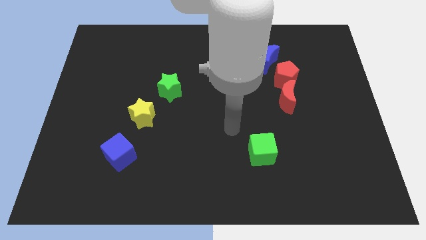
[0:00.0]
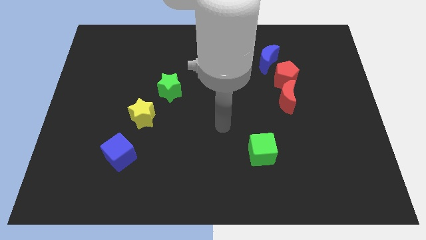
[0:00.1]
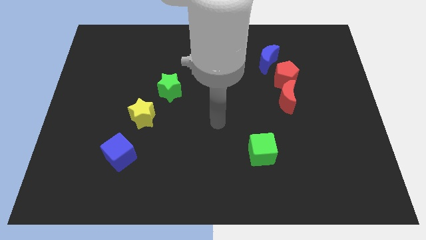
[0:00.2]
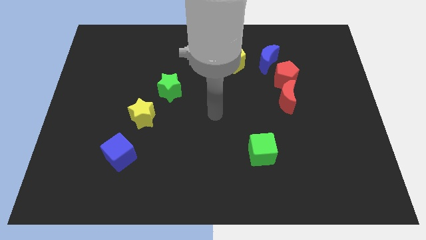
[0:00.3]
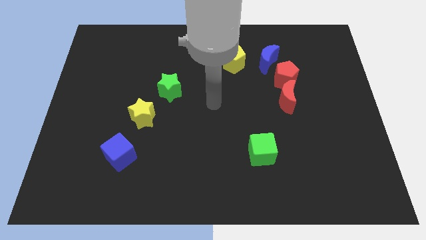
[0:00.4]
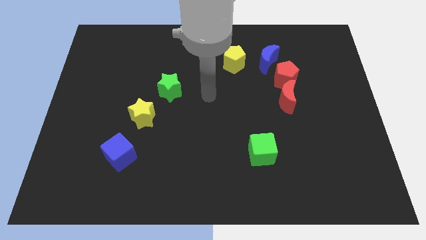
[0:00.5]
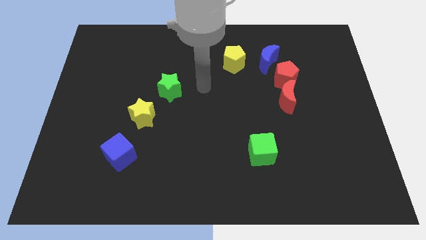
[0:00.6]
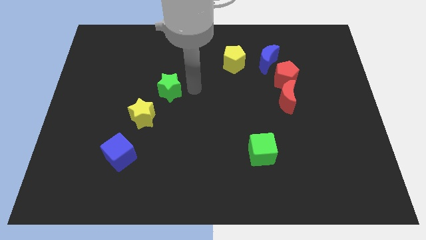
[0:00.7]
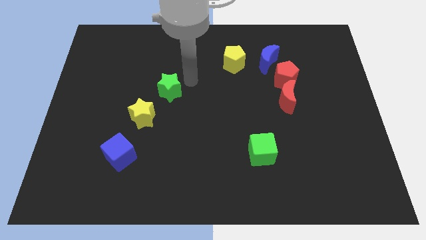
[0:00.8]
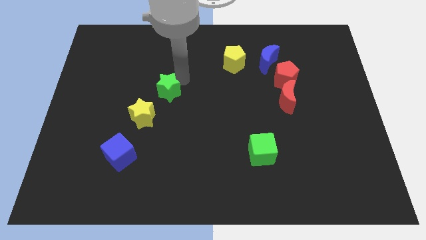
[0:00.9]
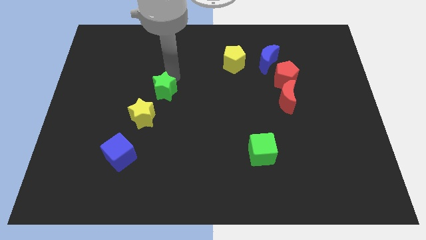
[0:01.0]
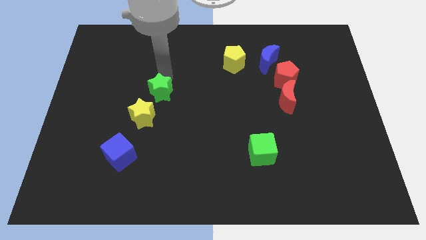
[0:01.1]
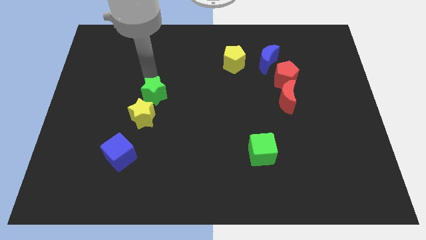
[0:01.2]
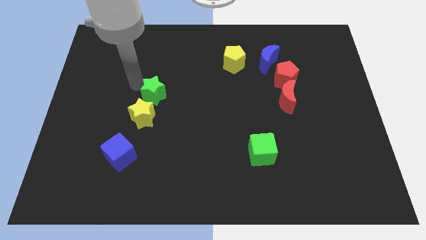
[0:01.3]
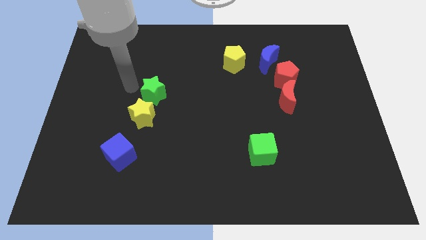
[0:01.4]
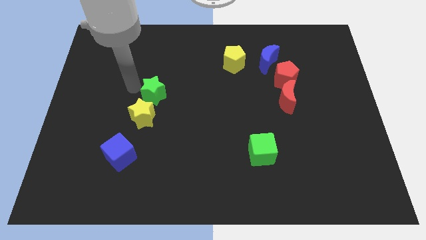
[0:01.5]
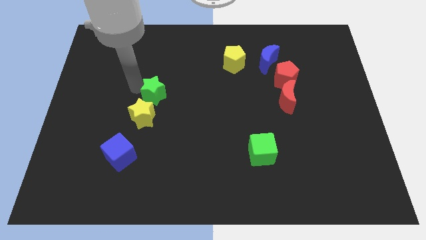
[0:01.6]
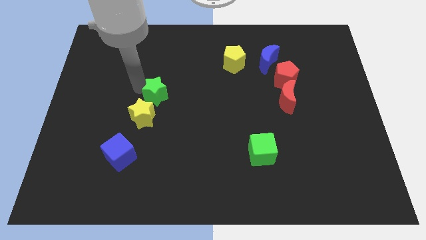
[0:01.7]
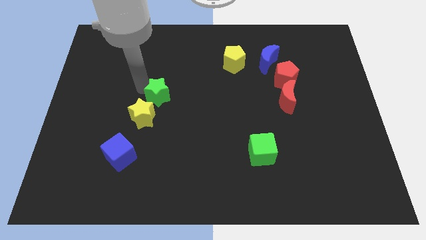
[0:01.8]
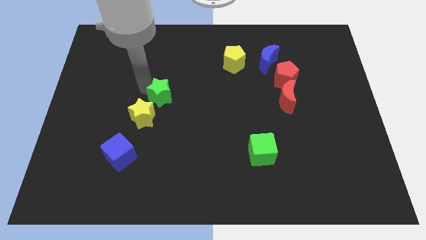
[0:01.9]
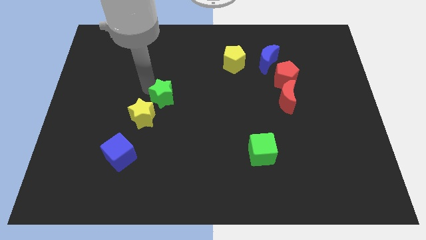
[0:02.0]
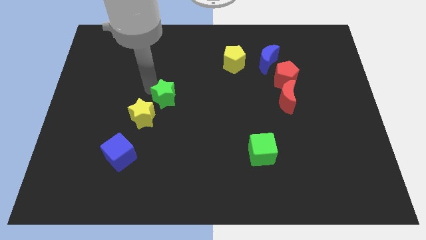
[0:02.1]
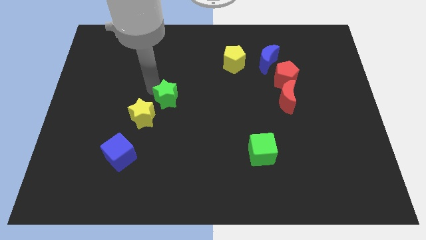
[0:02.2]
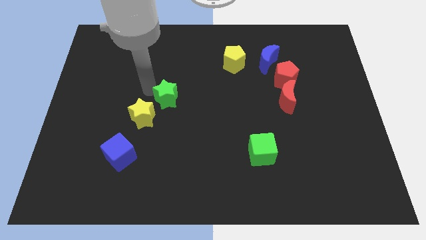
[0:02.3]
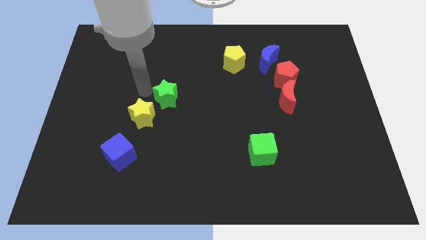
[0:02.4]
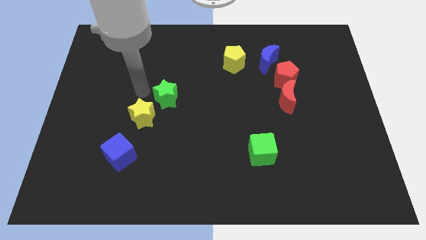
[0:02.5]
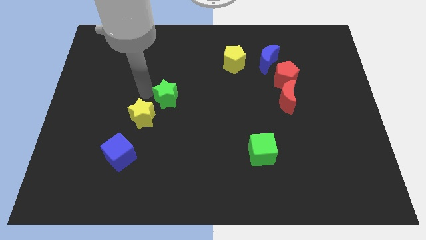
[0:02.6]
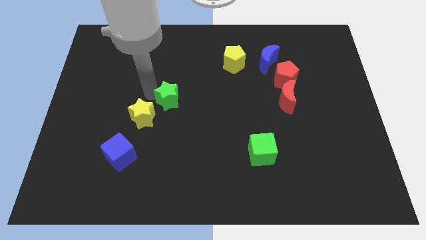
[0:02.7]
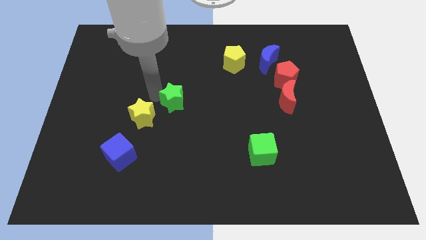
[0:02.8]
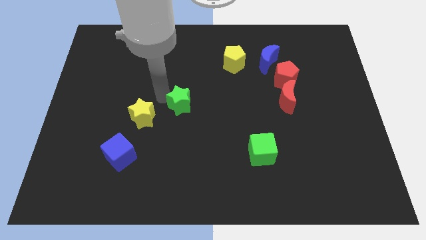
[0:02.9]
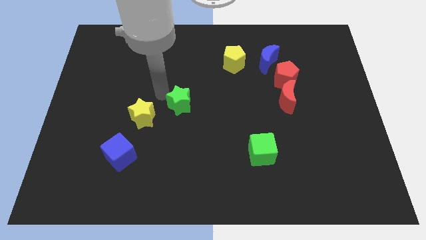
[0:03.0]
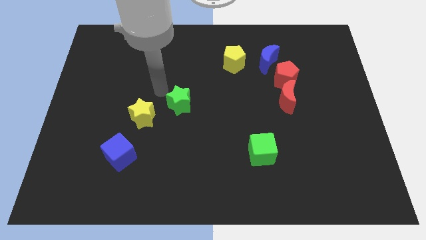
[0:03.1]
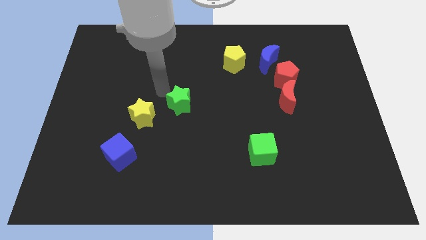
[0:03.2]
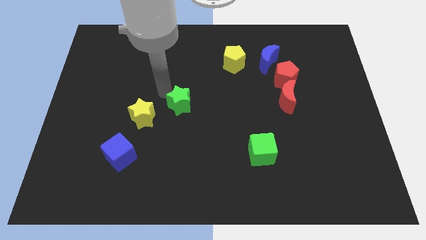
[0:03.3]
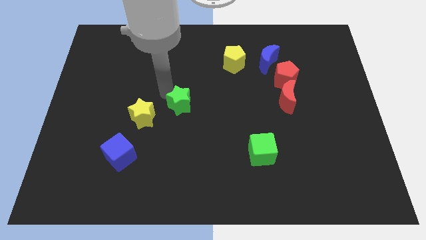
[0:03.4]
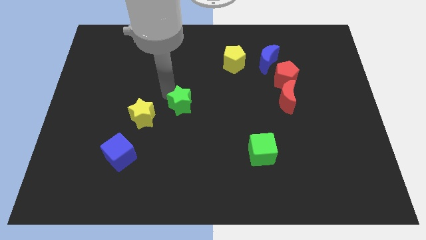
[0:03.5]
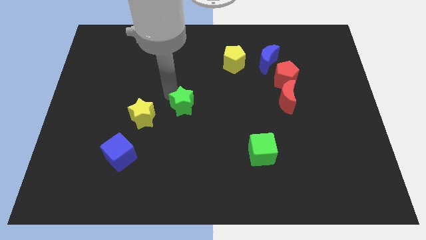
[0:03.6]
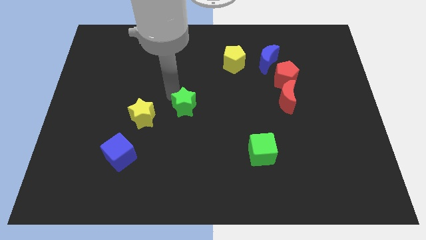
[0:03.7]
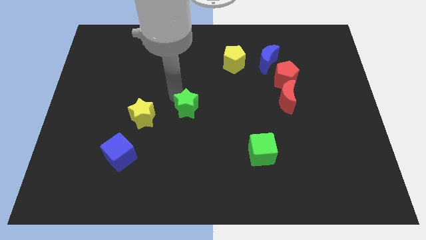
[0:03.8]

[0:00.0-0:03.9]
slide the green star downwards and right diagonally somewhat

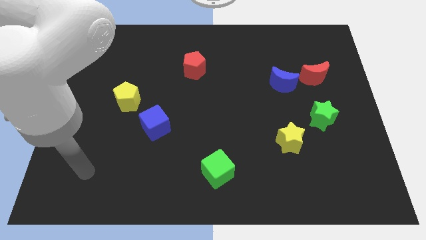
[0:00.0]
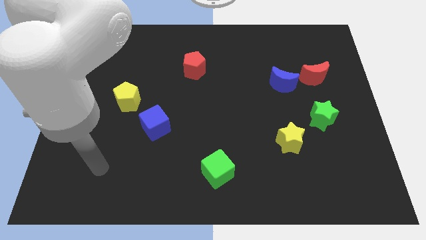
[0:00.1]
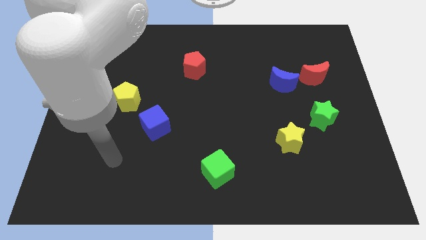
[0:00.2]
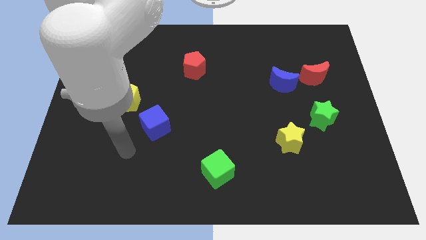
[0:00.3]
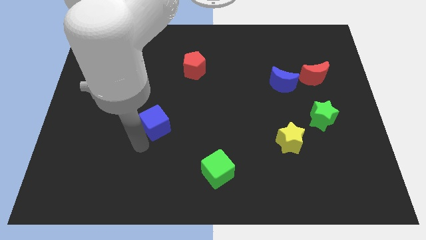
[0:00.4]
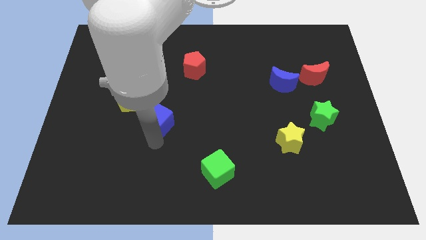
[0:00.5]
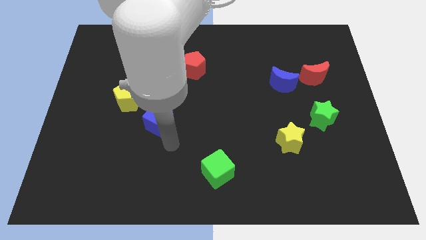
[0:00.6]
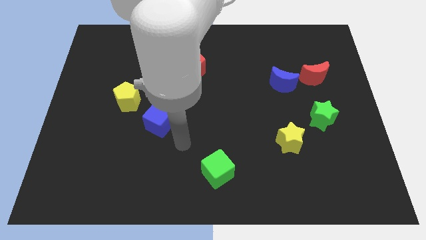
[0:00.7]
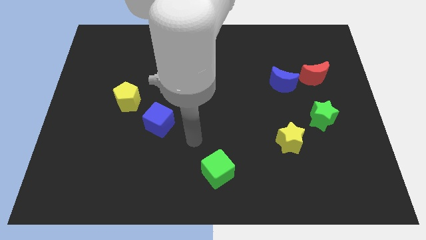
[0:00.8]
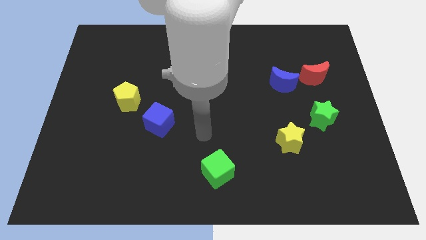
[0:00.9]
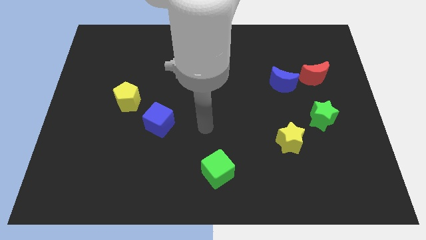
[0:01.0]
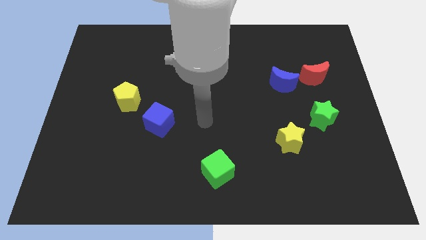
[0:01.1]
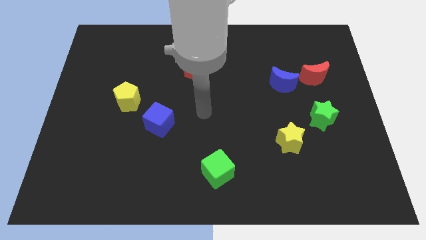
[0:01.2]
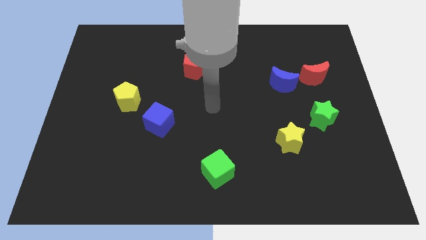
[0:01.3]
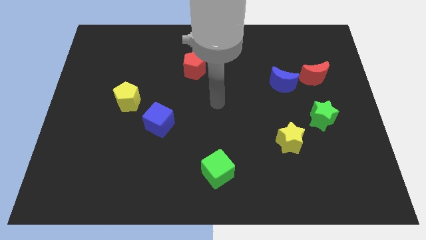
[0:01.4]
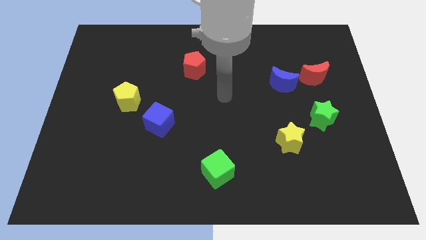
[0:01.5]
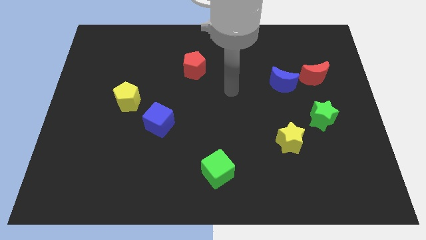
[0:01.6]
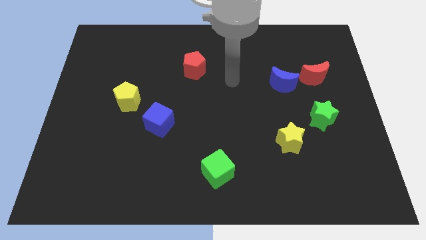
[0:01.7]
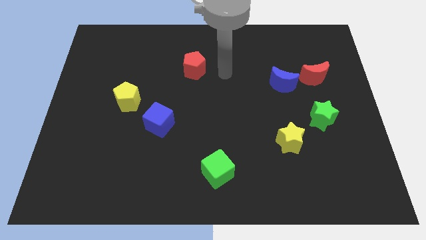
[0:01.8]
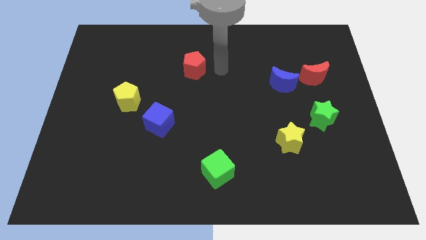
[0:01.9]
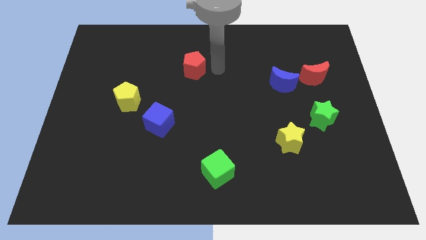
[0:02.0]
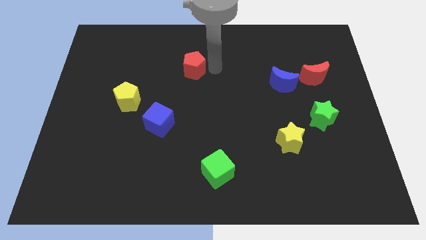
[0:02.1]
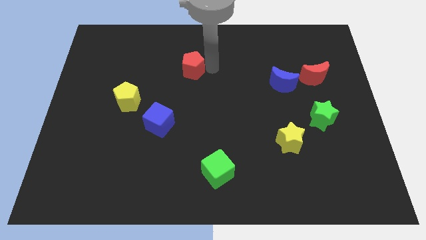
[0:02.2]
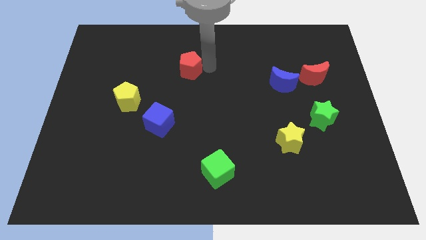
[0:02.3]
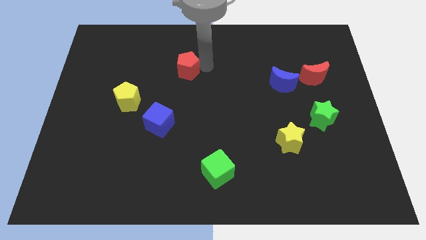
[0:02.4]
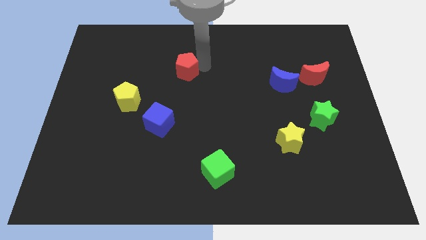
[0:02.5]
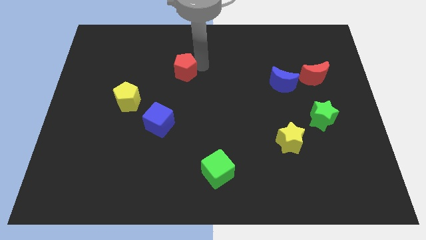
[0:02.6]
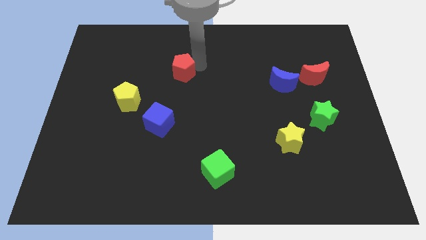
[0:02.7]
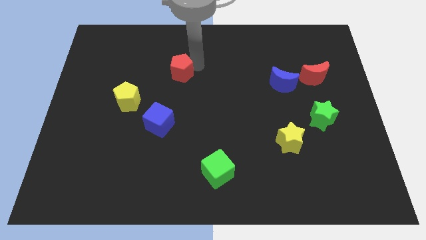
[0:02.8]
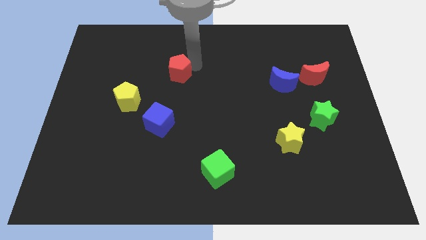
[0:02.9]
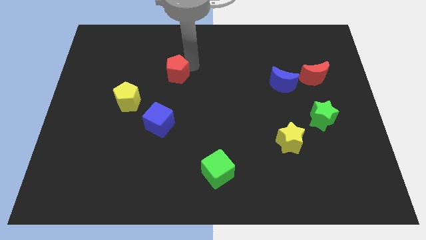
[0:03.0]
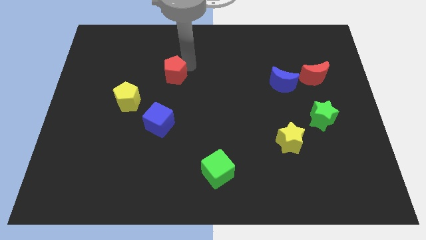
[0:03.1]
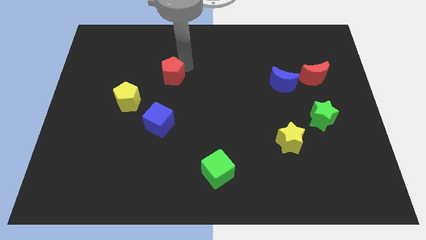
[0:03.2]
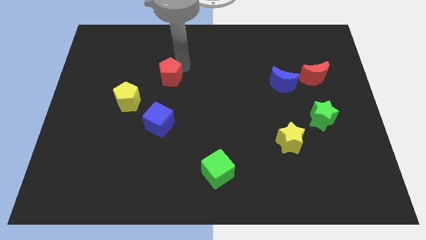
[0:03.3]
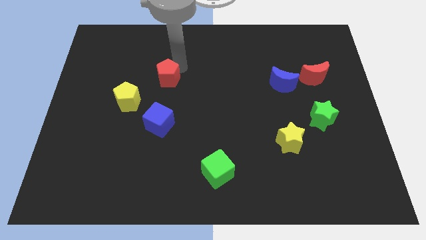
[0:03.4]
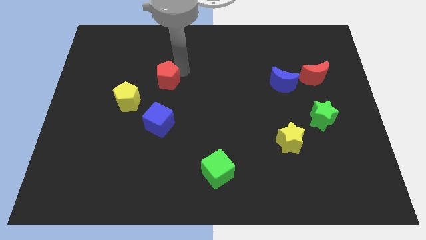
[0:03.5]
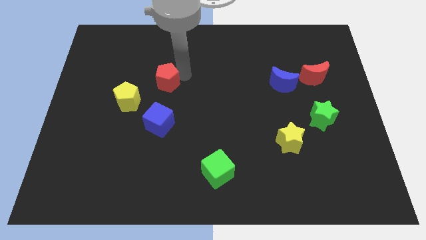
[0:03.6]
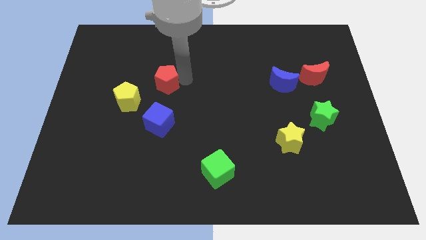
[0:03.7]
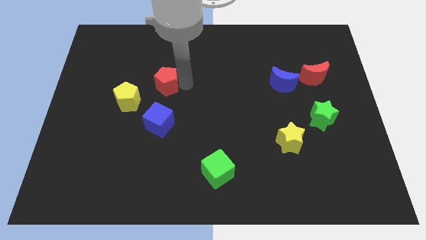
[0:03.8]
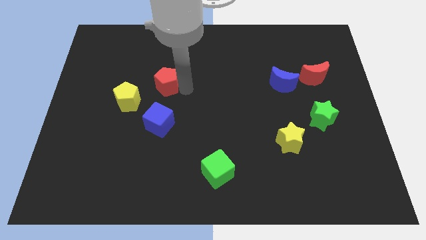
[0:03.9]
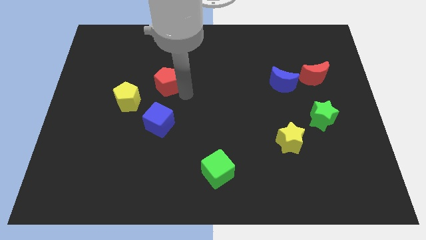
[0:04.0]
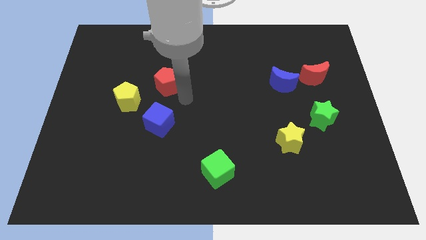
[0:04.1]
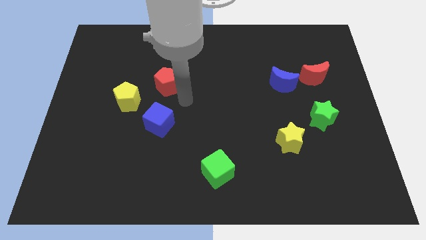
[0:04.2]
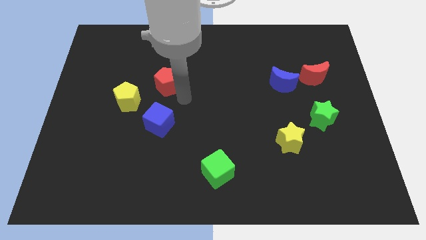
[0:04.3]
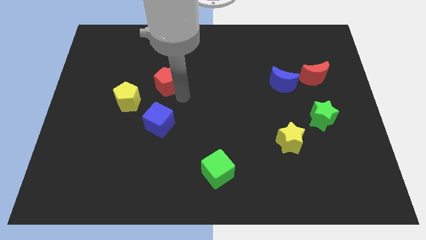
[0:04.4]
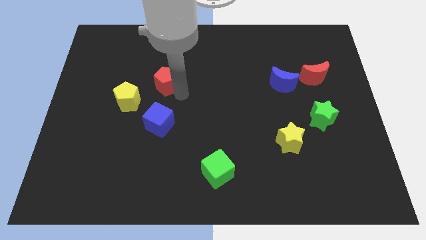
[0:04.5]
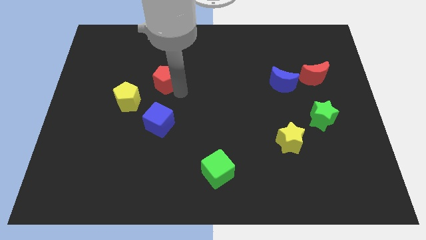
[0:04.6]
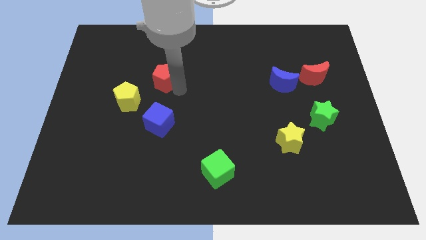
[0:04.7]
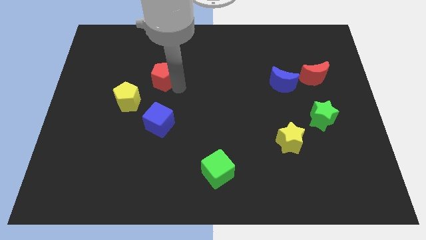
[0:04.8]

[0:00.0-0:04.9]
slightly push the red pentagon left
